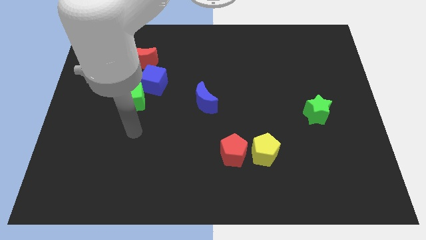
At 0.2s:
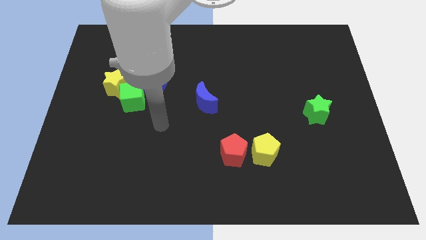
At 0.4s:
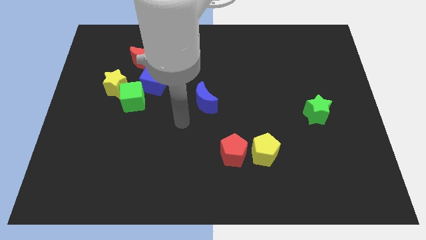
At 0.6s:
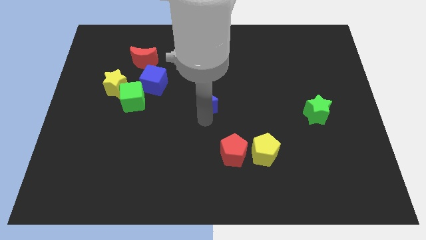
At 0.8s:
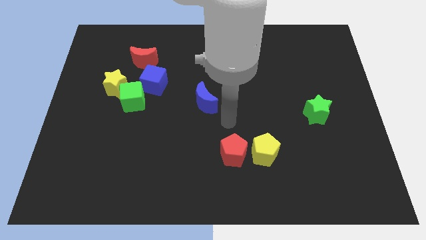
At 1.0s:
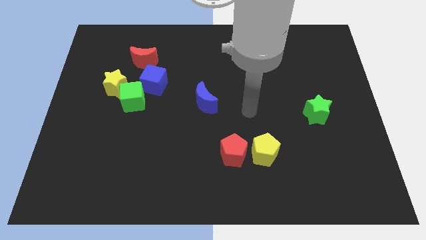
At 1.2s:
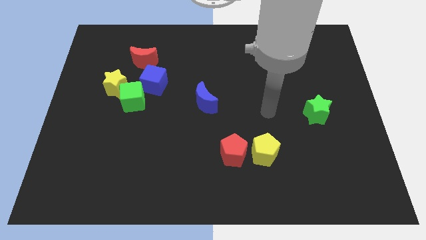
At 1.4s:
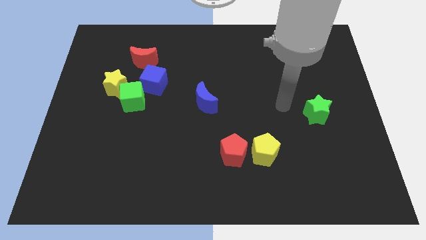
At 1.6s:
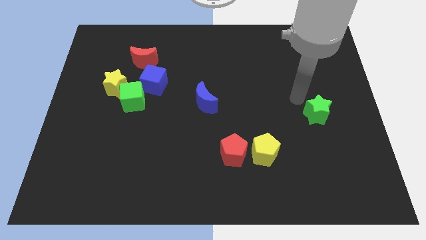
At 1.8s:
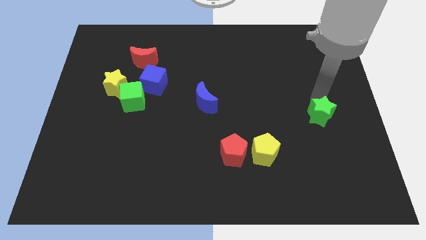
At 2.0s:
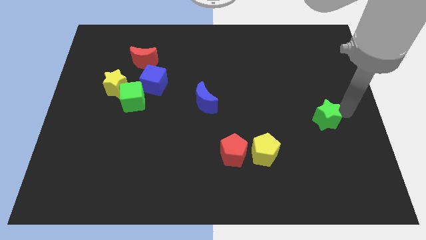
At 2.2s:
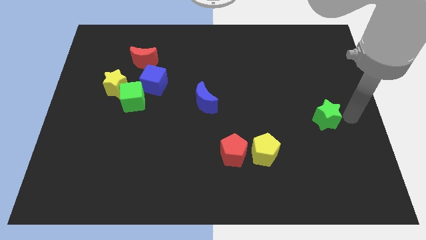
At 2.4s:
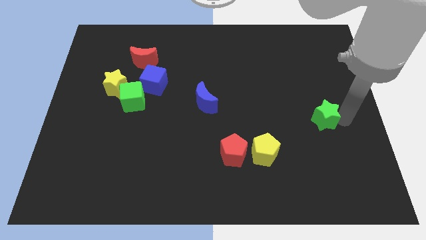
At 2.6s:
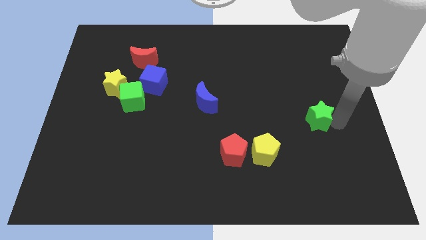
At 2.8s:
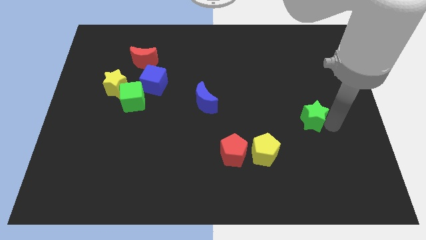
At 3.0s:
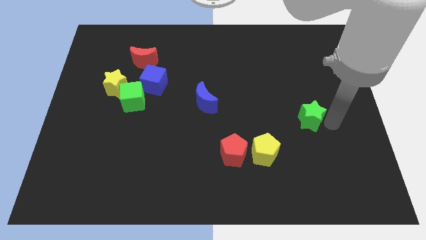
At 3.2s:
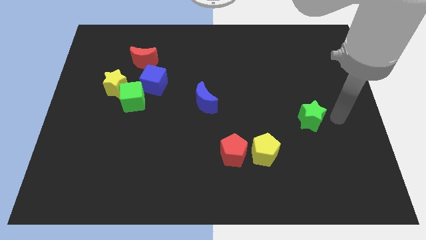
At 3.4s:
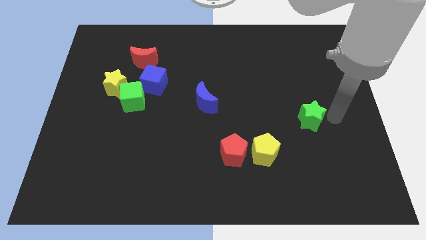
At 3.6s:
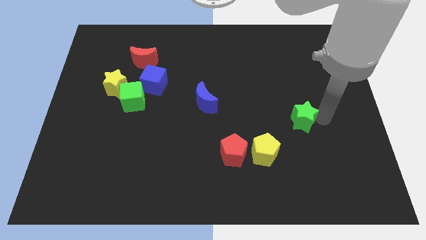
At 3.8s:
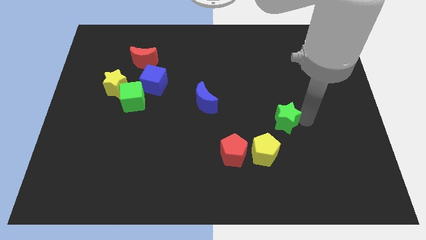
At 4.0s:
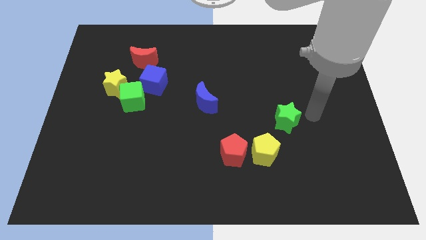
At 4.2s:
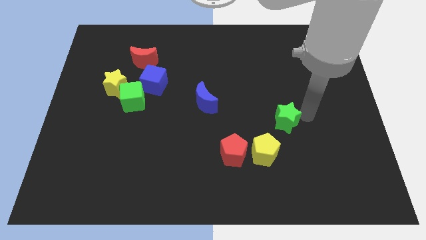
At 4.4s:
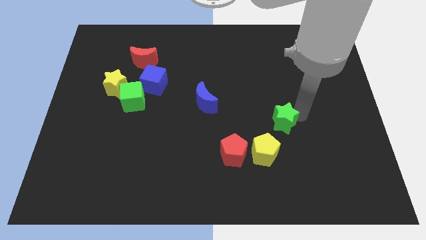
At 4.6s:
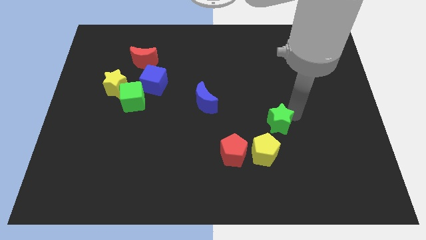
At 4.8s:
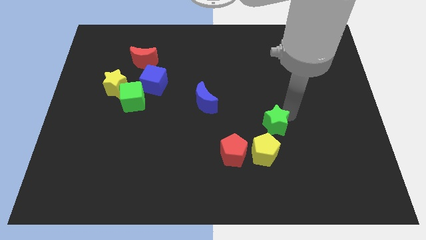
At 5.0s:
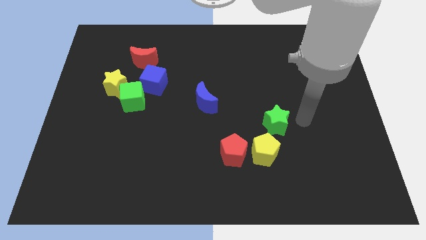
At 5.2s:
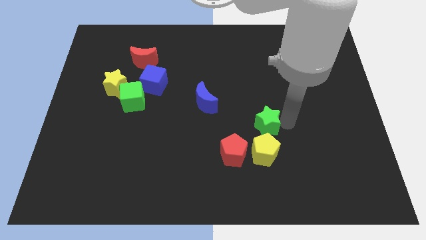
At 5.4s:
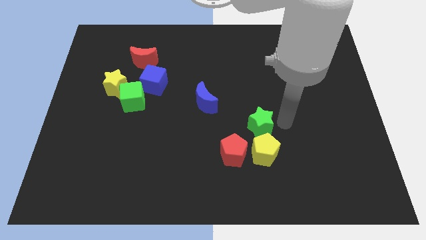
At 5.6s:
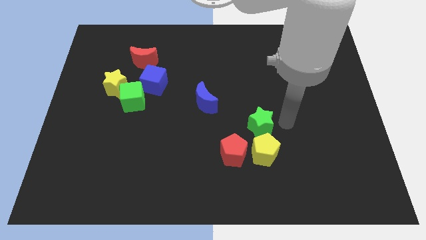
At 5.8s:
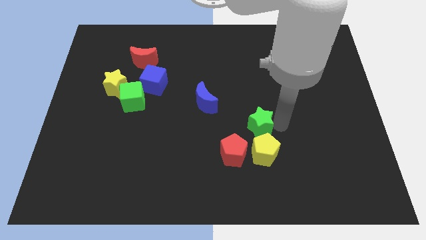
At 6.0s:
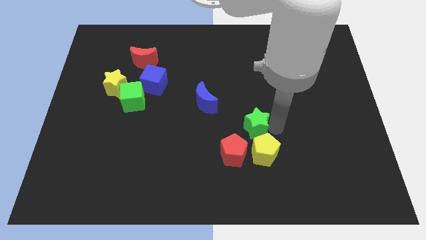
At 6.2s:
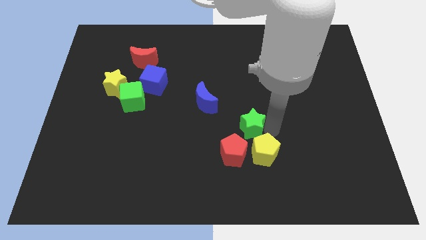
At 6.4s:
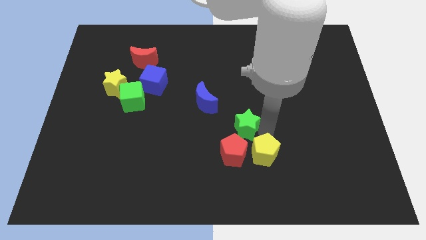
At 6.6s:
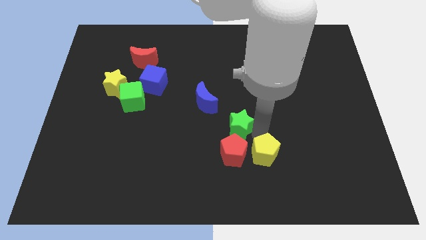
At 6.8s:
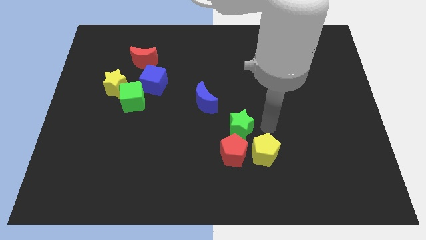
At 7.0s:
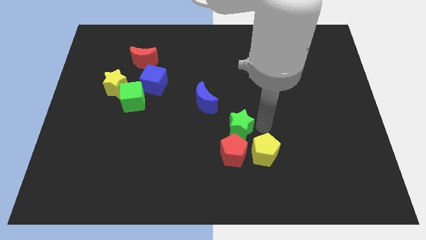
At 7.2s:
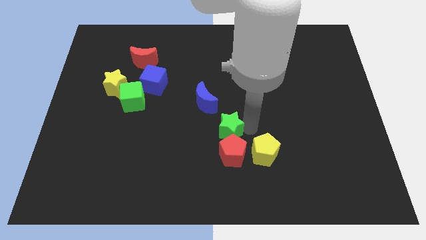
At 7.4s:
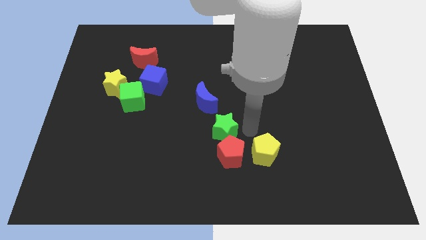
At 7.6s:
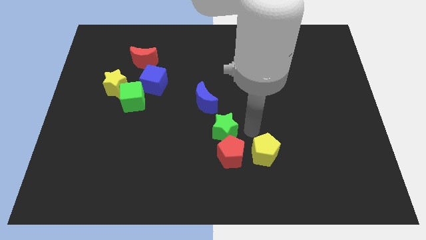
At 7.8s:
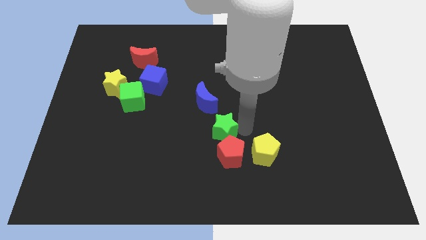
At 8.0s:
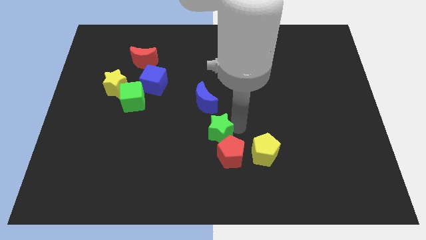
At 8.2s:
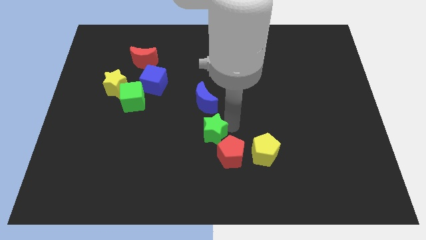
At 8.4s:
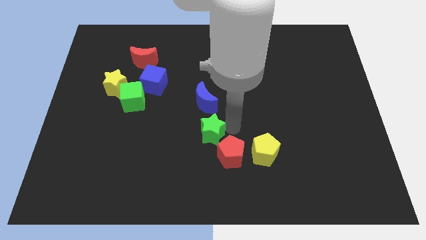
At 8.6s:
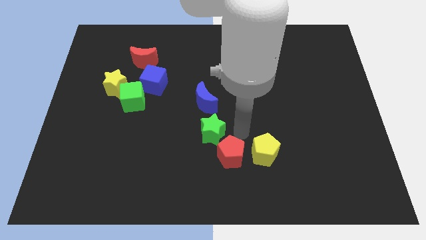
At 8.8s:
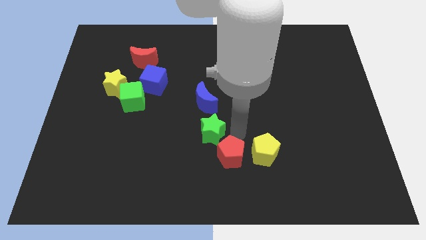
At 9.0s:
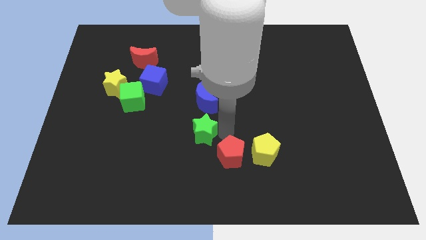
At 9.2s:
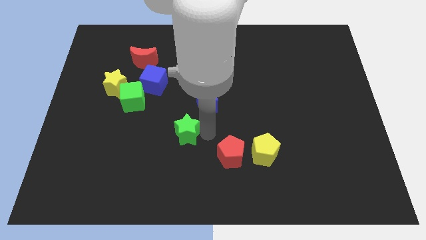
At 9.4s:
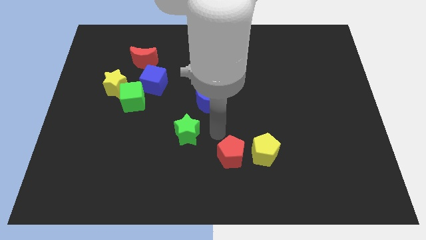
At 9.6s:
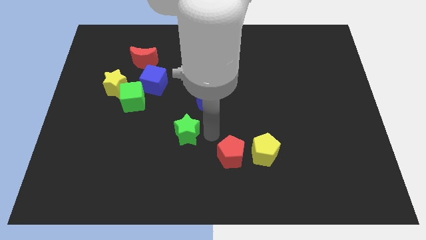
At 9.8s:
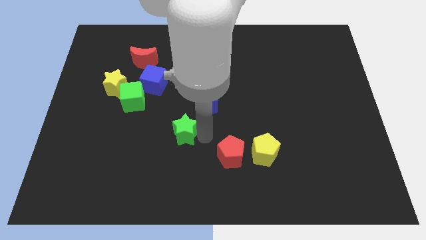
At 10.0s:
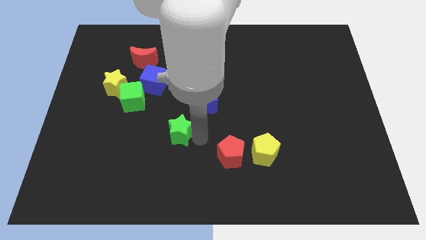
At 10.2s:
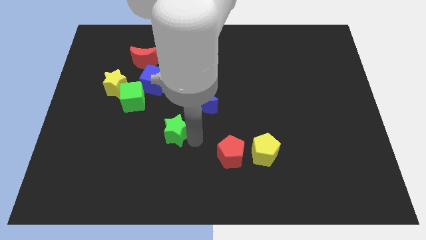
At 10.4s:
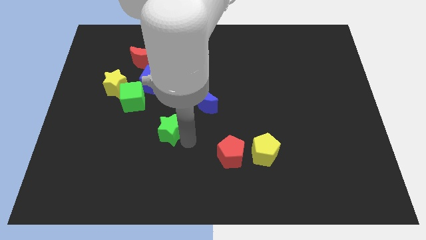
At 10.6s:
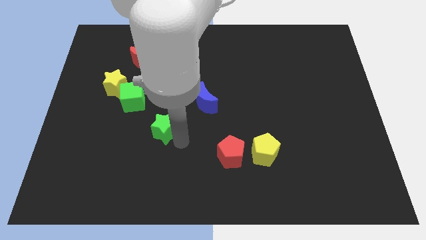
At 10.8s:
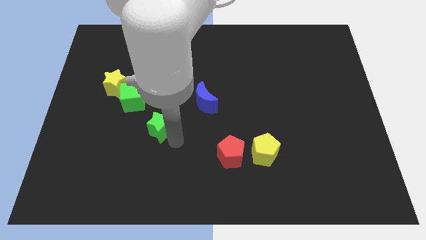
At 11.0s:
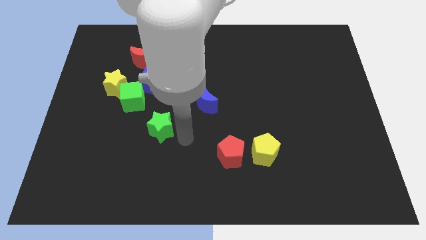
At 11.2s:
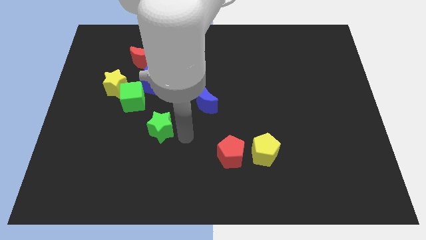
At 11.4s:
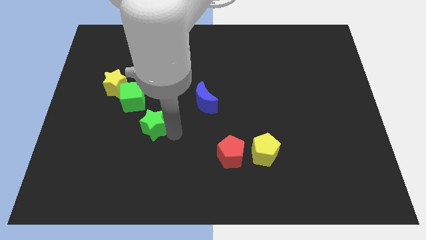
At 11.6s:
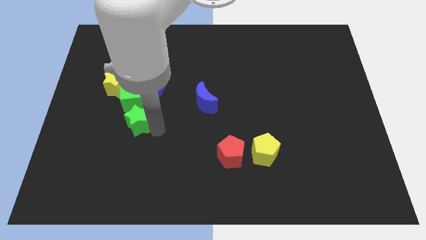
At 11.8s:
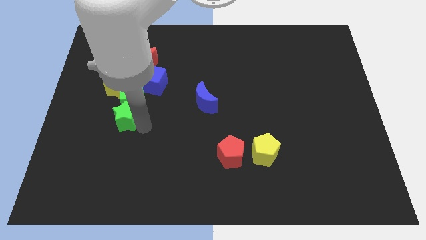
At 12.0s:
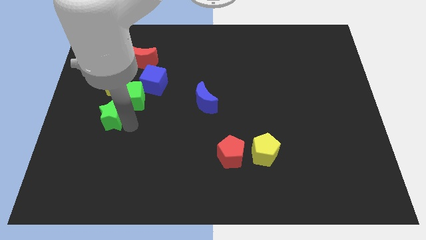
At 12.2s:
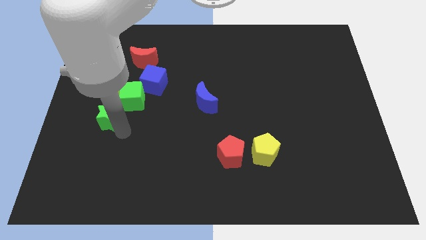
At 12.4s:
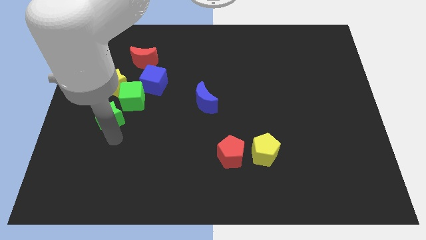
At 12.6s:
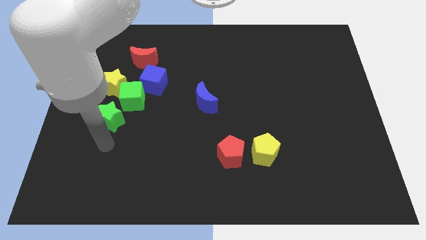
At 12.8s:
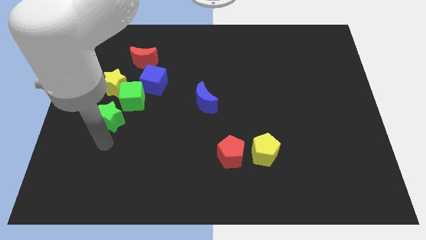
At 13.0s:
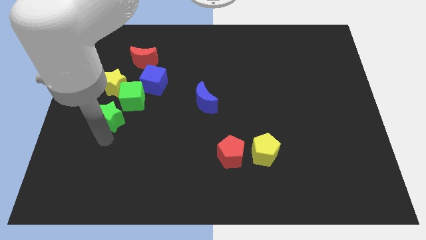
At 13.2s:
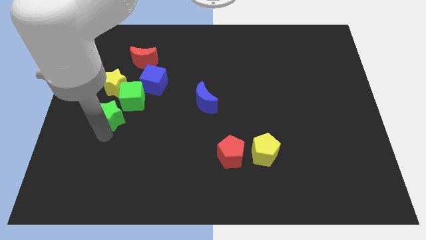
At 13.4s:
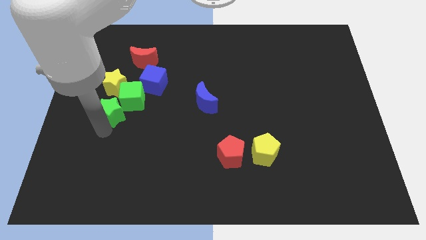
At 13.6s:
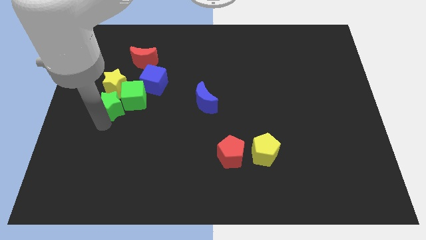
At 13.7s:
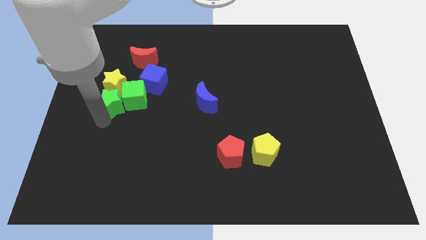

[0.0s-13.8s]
push the green star to the yellow star

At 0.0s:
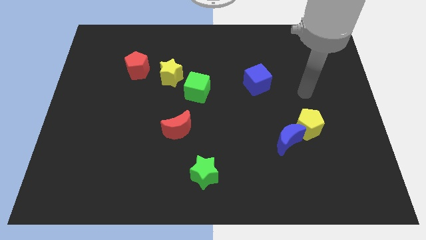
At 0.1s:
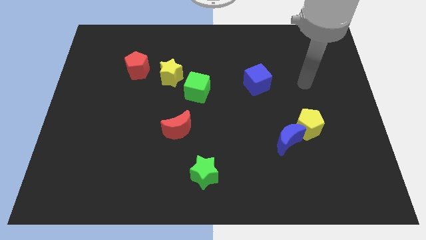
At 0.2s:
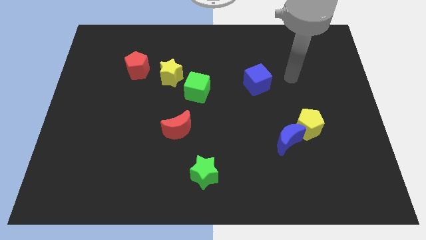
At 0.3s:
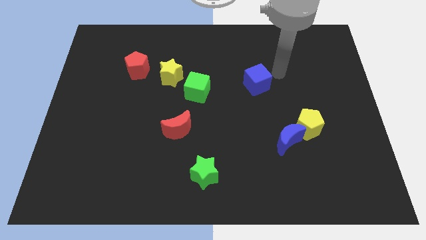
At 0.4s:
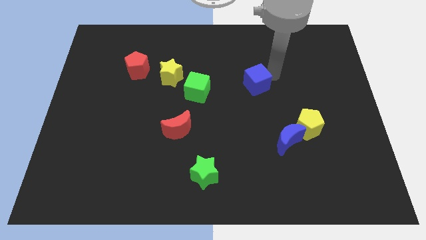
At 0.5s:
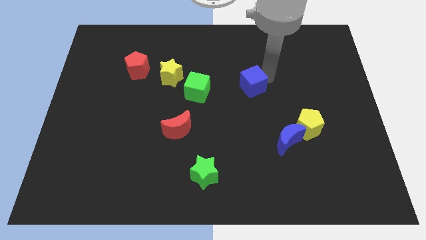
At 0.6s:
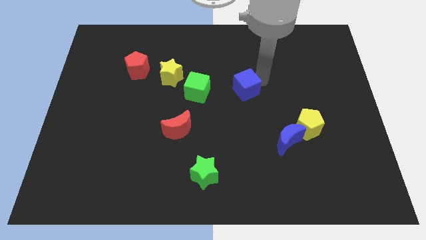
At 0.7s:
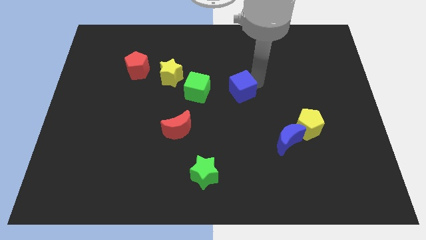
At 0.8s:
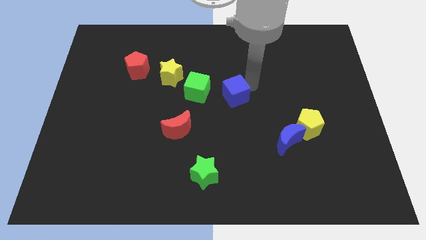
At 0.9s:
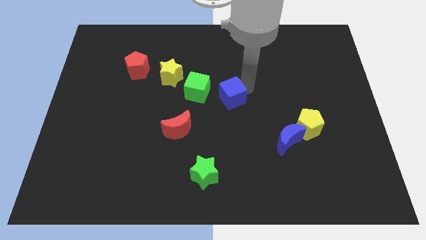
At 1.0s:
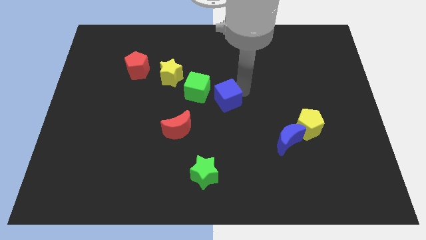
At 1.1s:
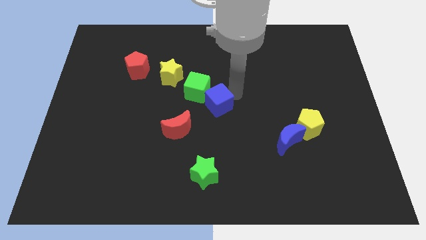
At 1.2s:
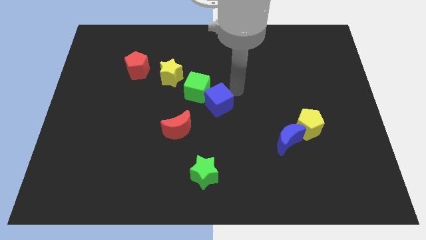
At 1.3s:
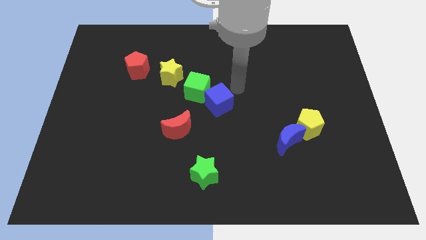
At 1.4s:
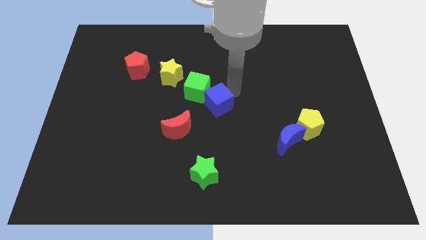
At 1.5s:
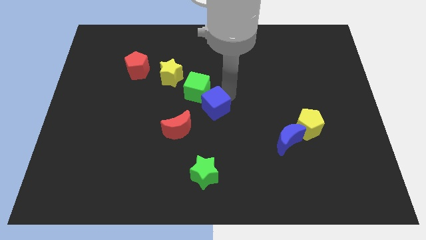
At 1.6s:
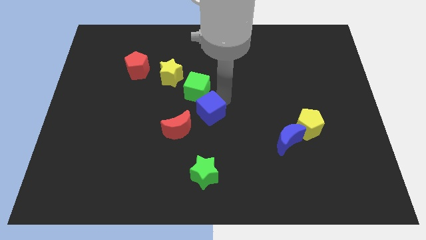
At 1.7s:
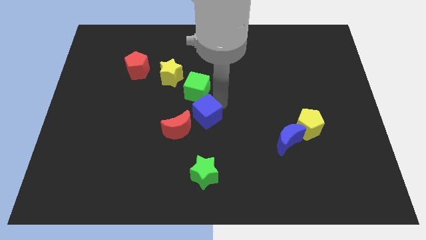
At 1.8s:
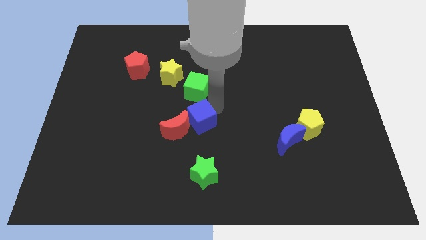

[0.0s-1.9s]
push the blue cube to the red moon
